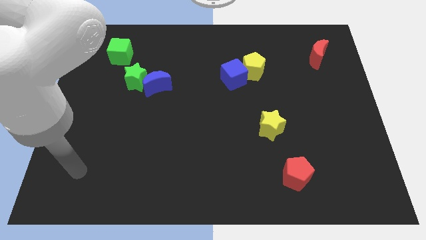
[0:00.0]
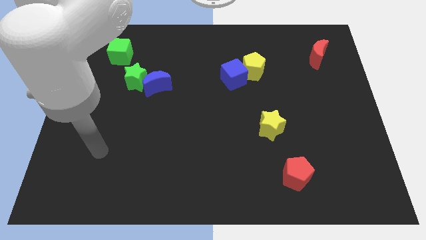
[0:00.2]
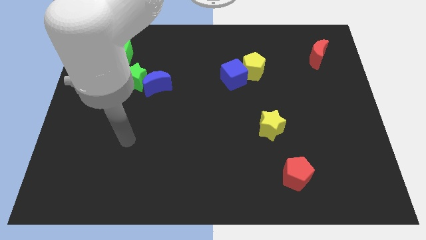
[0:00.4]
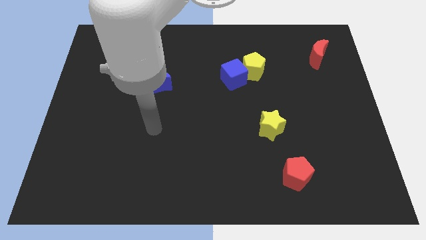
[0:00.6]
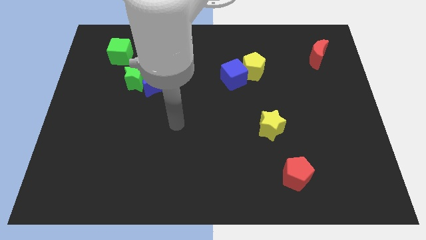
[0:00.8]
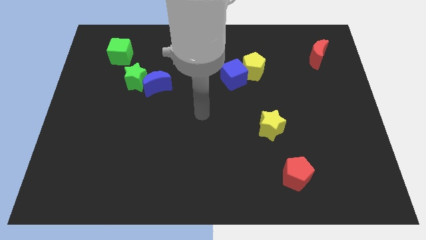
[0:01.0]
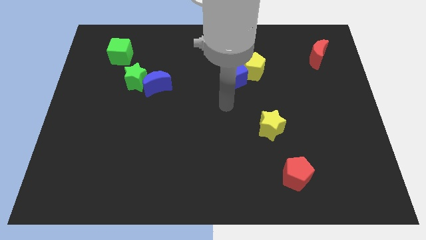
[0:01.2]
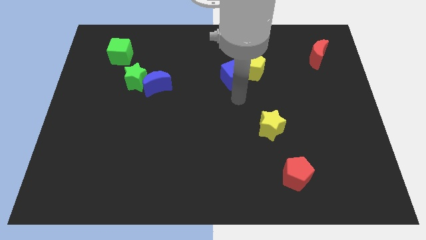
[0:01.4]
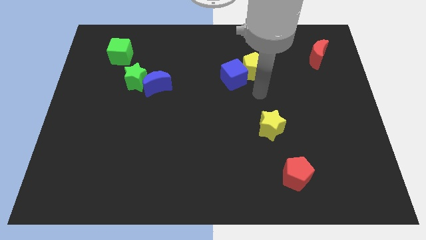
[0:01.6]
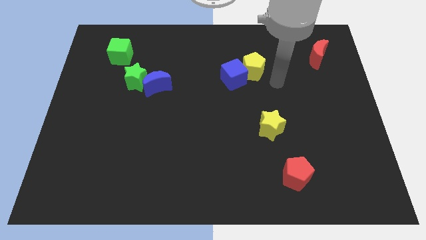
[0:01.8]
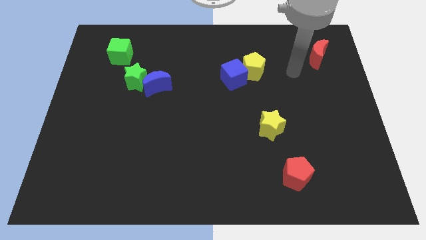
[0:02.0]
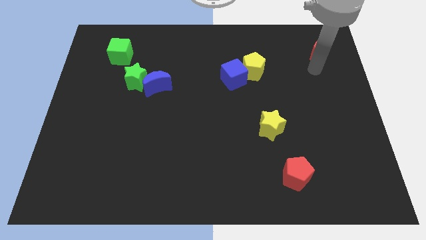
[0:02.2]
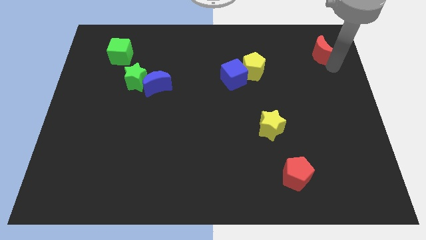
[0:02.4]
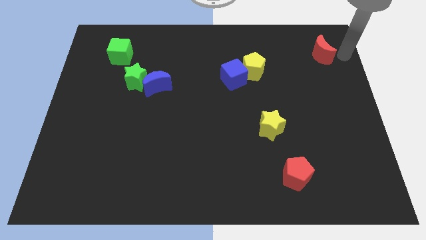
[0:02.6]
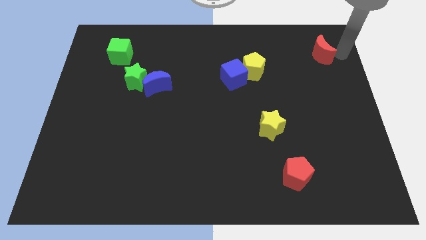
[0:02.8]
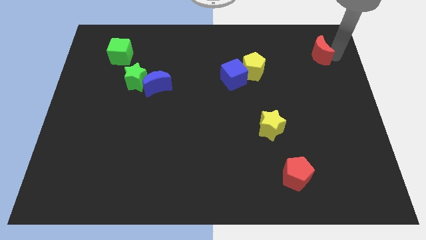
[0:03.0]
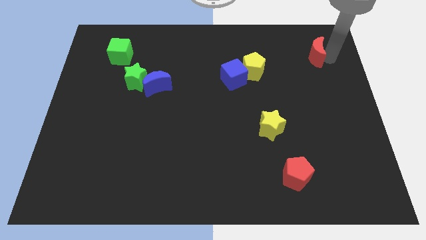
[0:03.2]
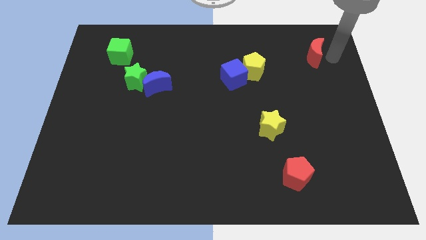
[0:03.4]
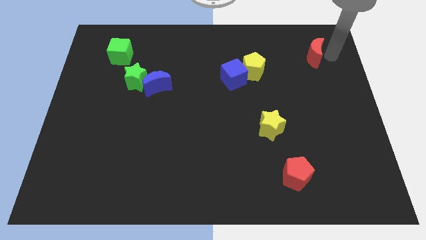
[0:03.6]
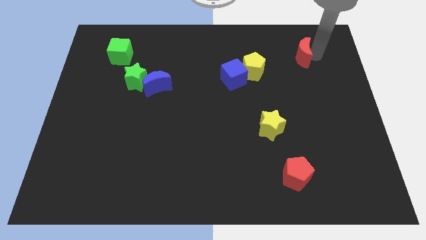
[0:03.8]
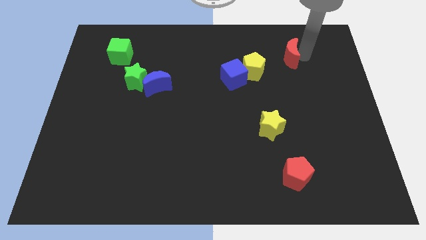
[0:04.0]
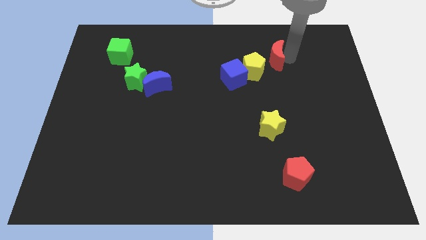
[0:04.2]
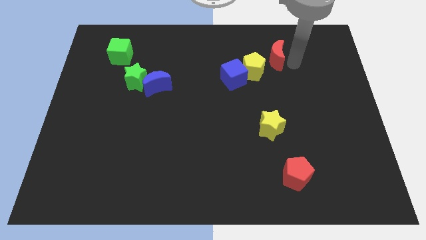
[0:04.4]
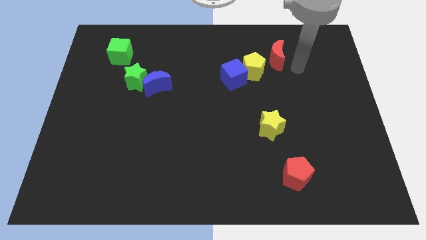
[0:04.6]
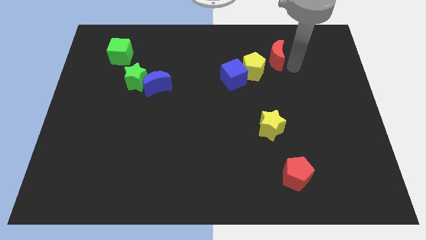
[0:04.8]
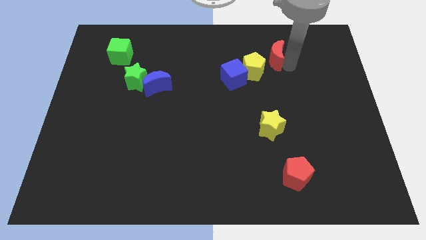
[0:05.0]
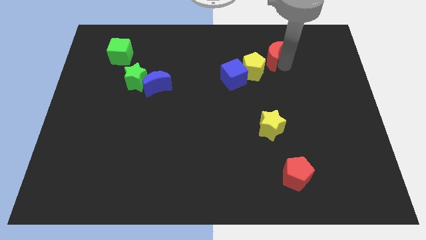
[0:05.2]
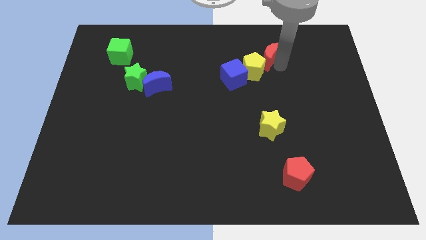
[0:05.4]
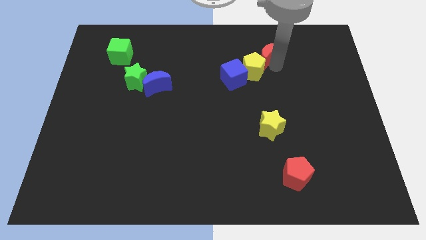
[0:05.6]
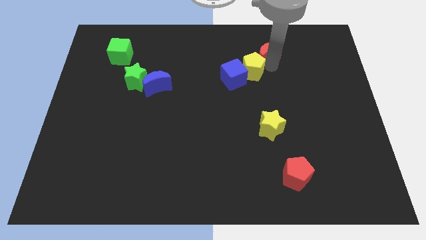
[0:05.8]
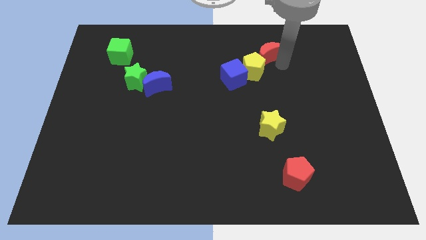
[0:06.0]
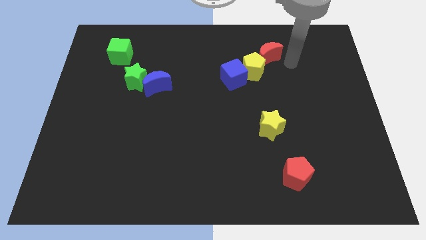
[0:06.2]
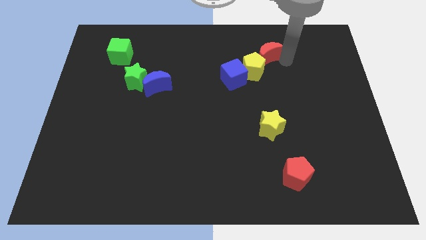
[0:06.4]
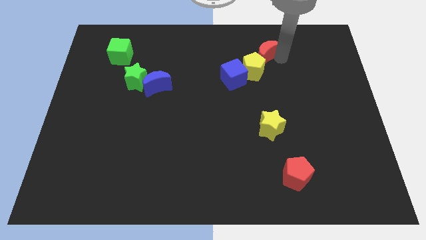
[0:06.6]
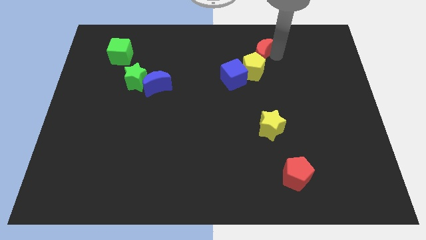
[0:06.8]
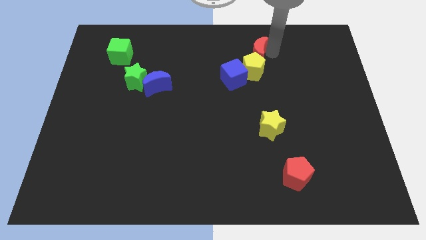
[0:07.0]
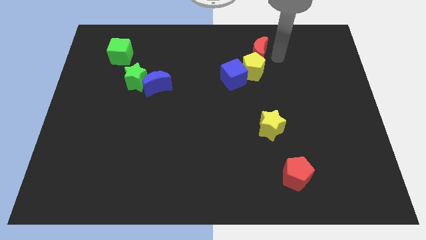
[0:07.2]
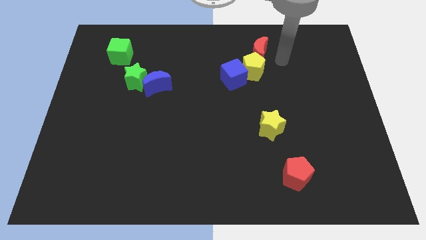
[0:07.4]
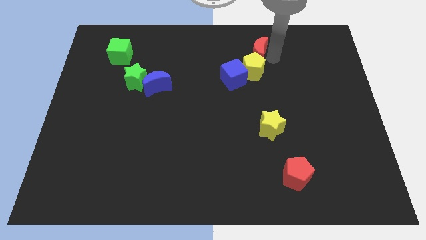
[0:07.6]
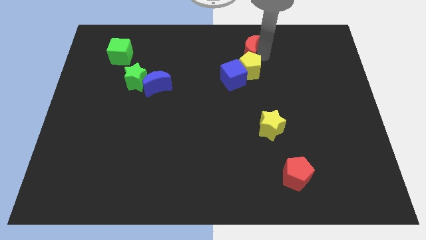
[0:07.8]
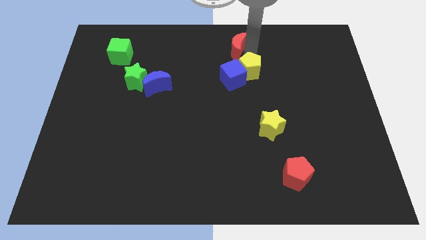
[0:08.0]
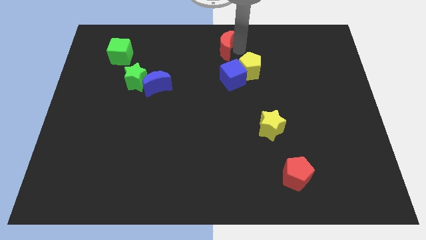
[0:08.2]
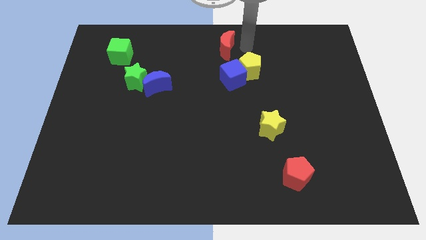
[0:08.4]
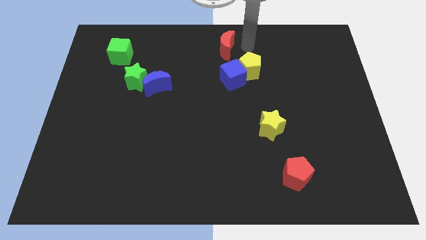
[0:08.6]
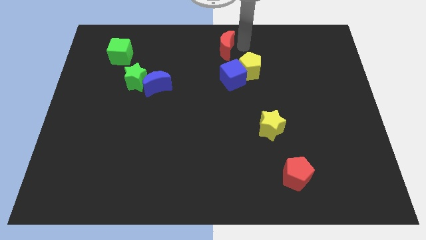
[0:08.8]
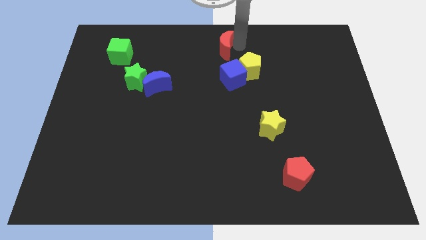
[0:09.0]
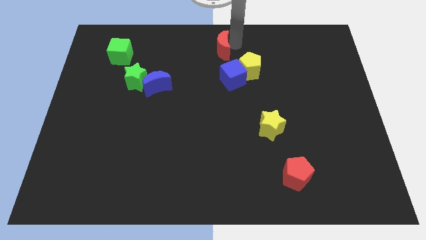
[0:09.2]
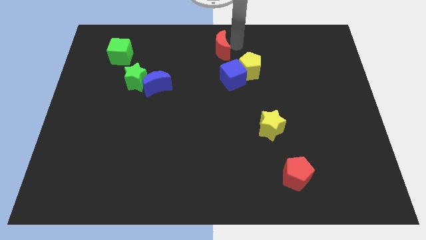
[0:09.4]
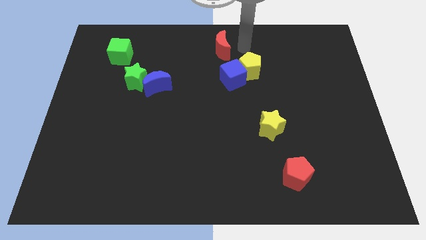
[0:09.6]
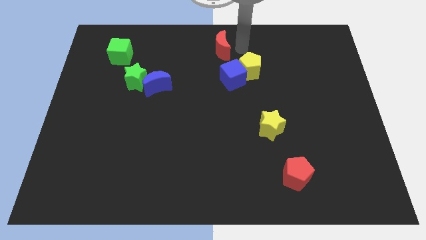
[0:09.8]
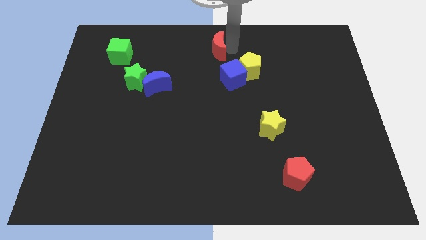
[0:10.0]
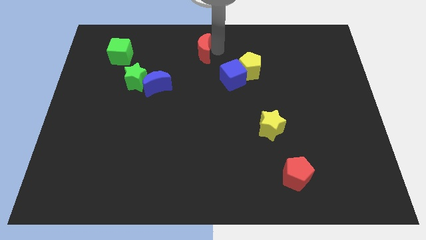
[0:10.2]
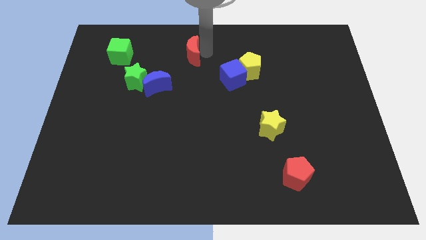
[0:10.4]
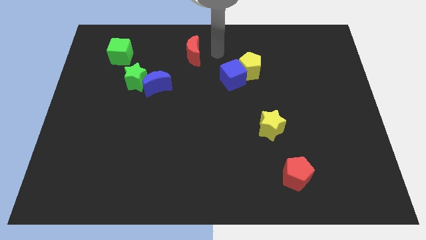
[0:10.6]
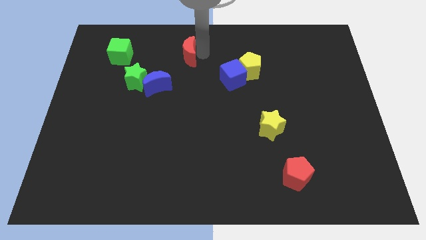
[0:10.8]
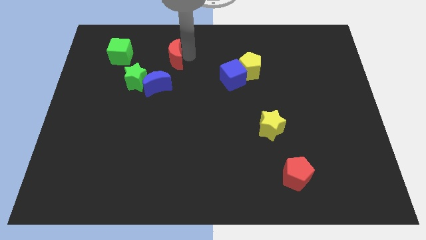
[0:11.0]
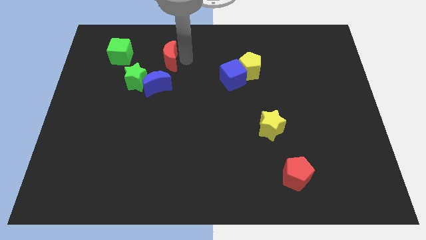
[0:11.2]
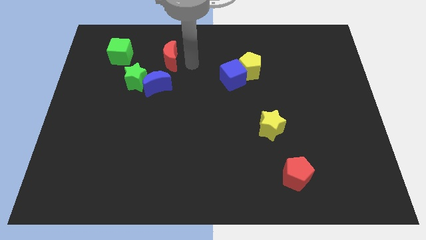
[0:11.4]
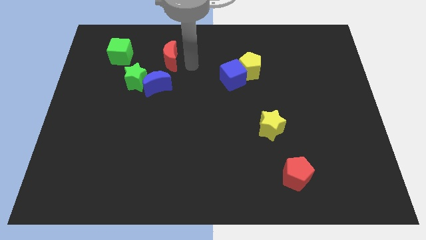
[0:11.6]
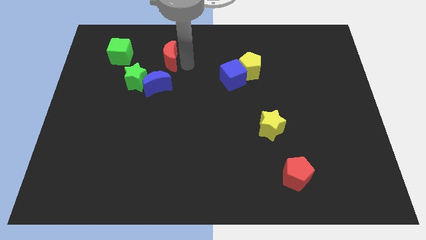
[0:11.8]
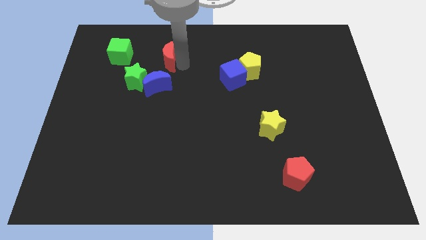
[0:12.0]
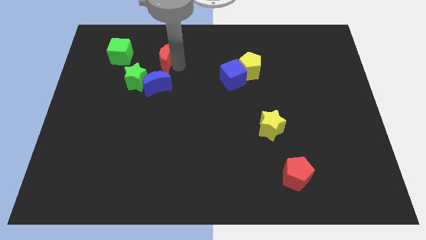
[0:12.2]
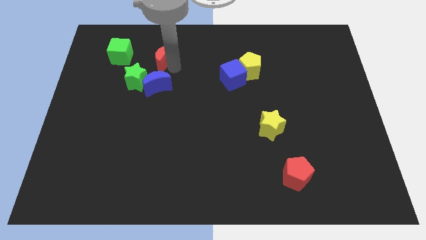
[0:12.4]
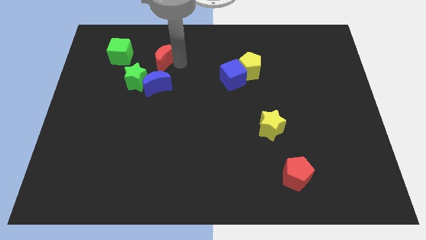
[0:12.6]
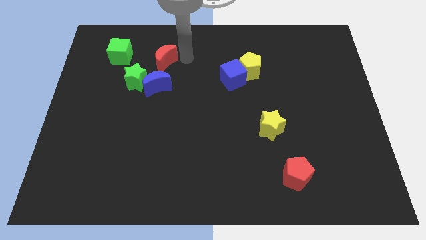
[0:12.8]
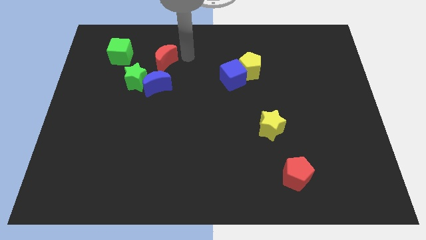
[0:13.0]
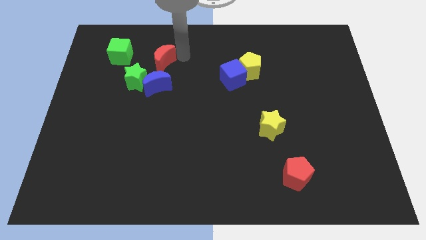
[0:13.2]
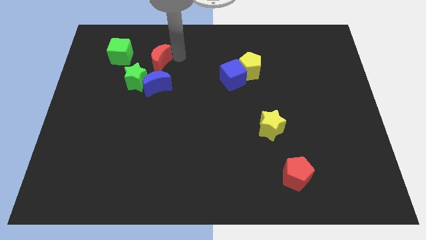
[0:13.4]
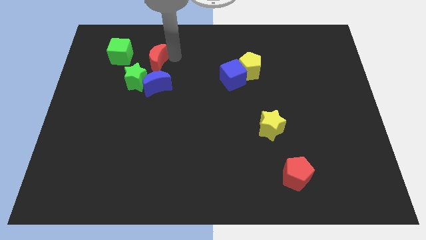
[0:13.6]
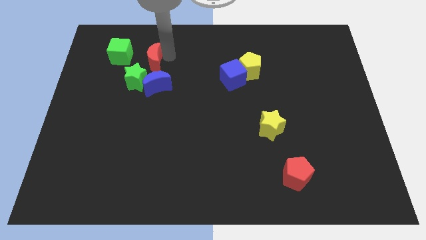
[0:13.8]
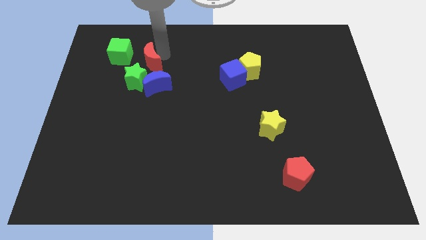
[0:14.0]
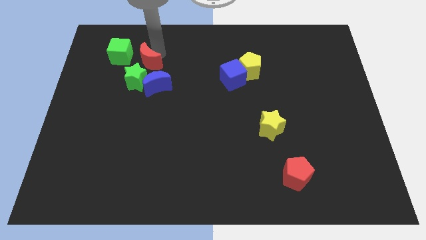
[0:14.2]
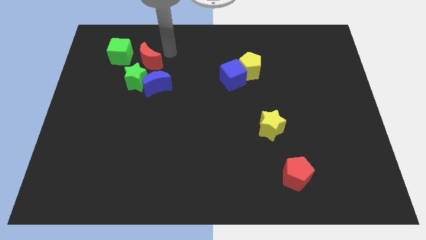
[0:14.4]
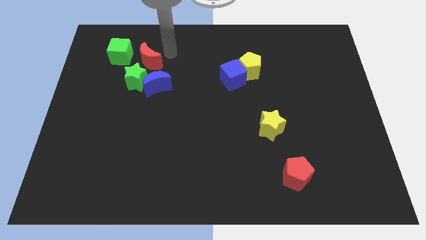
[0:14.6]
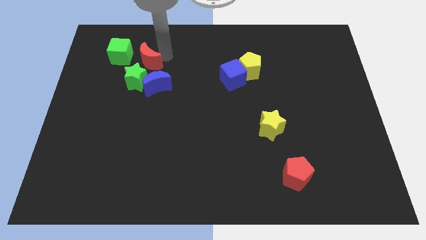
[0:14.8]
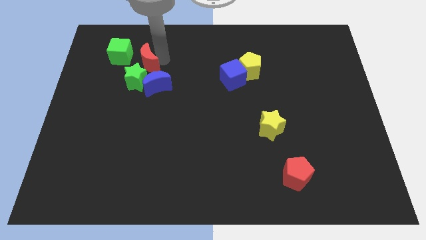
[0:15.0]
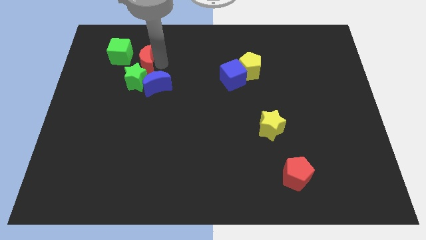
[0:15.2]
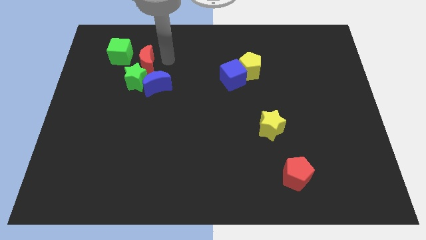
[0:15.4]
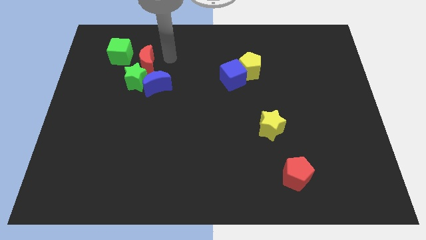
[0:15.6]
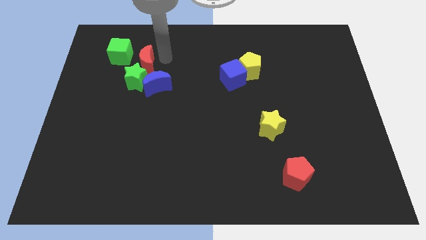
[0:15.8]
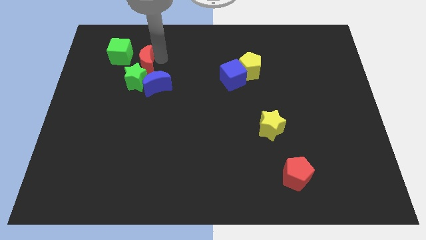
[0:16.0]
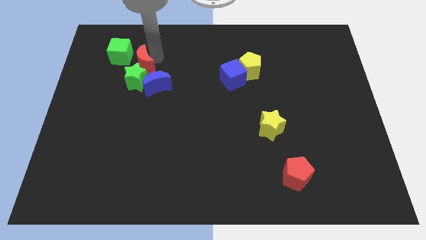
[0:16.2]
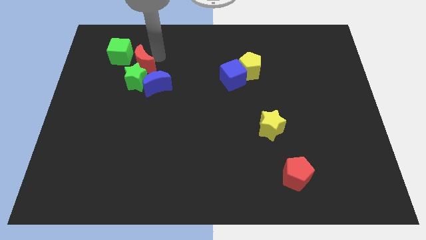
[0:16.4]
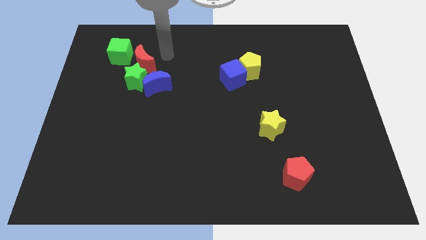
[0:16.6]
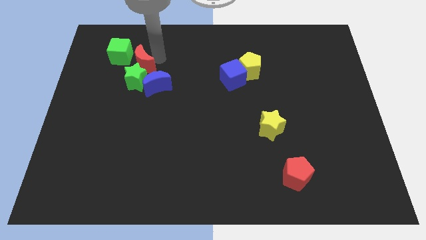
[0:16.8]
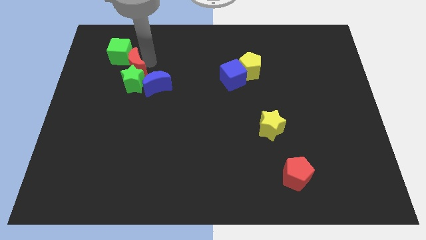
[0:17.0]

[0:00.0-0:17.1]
push the red moon to the bottom of the green cube
